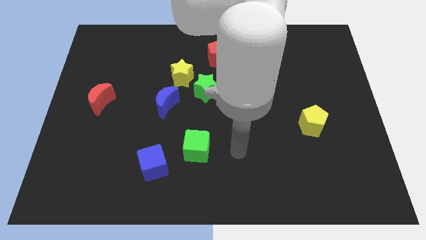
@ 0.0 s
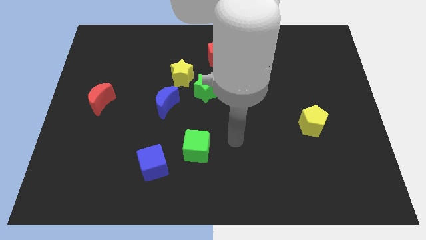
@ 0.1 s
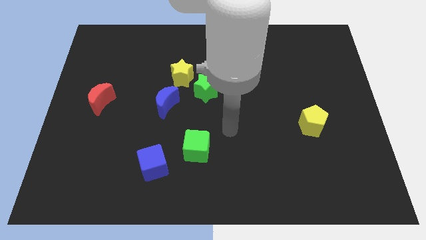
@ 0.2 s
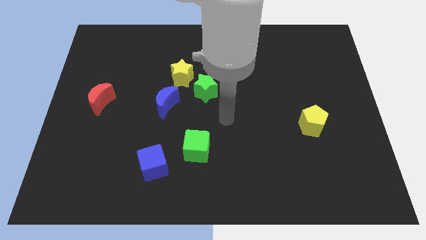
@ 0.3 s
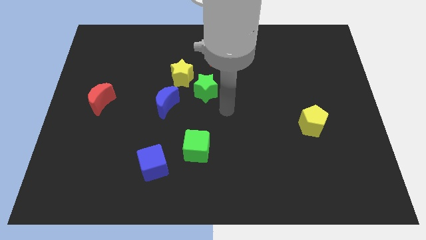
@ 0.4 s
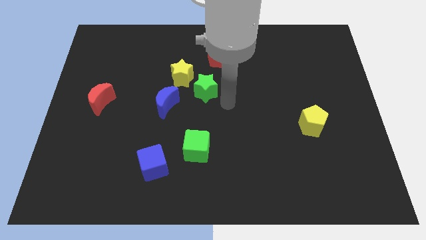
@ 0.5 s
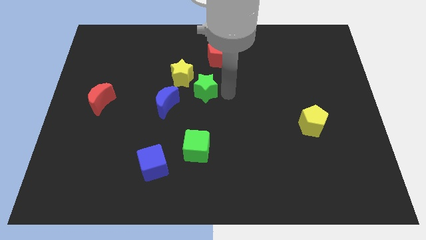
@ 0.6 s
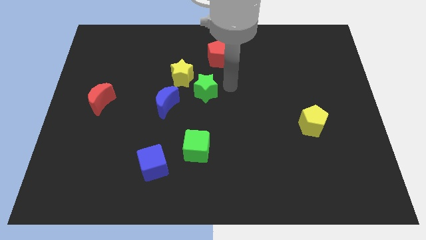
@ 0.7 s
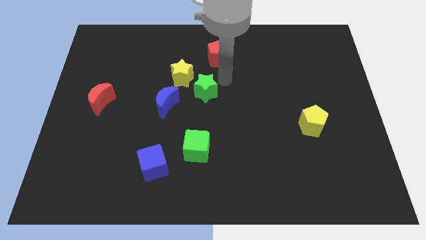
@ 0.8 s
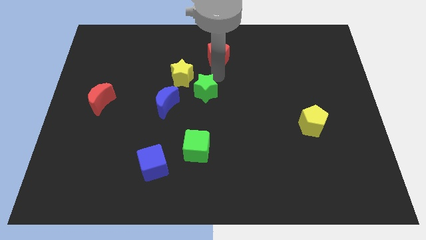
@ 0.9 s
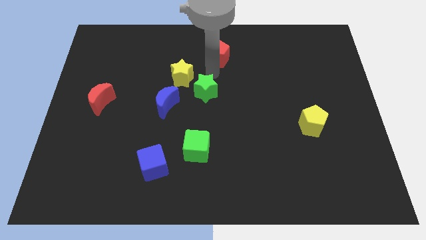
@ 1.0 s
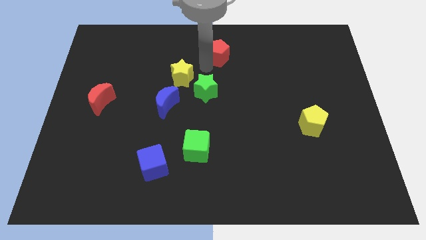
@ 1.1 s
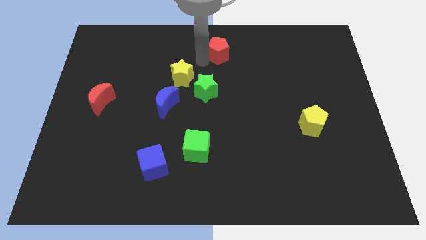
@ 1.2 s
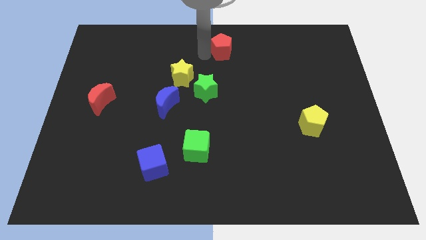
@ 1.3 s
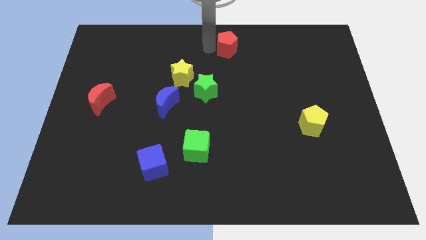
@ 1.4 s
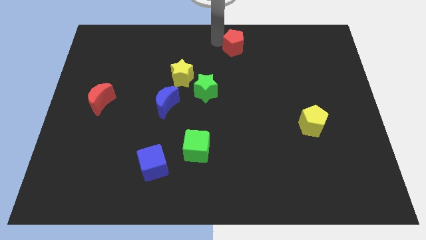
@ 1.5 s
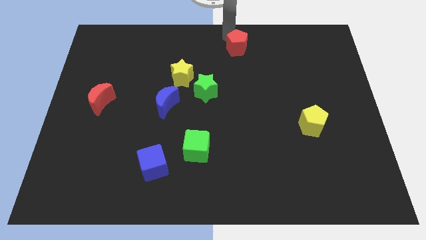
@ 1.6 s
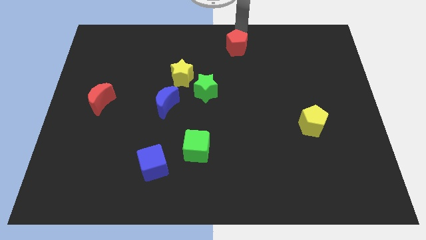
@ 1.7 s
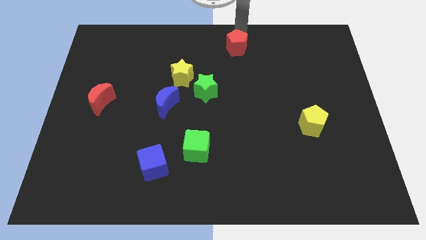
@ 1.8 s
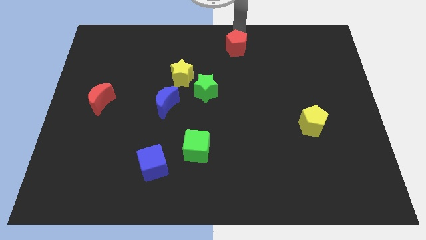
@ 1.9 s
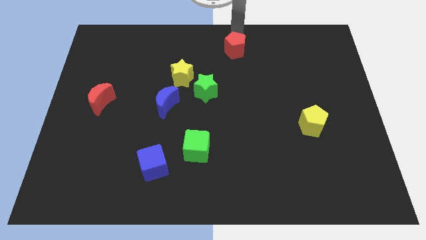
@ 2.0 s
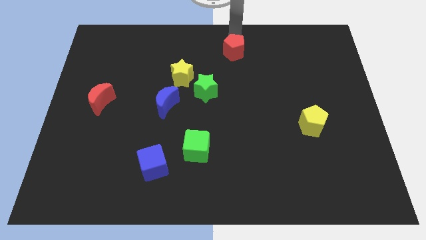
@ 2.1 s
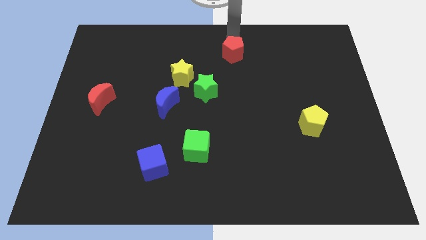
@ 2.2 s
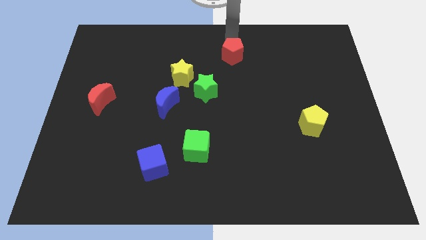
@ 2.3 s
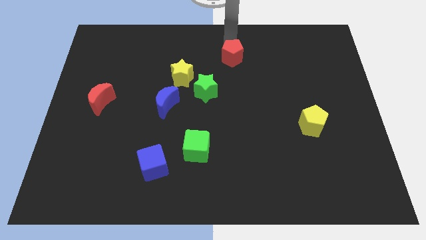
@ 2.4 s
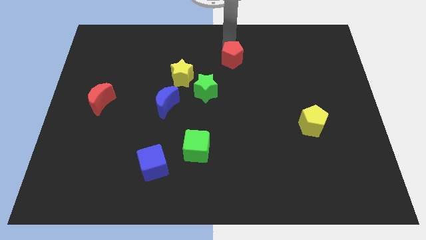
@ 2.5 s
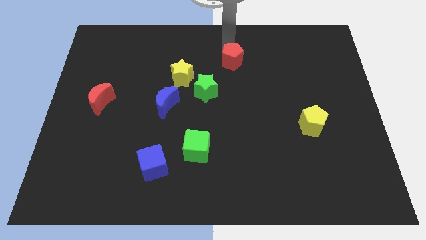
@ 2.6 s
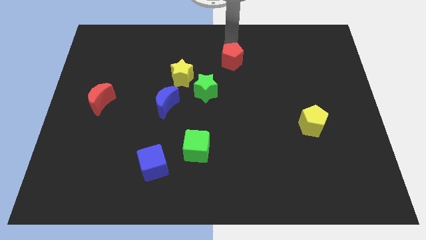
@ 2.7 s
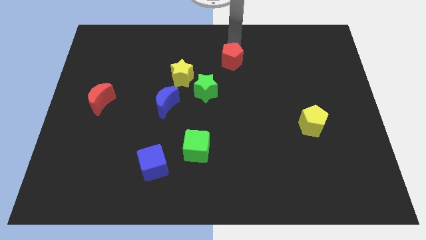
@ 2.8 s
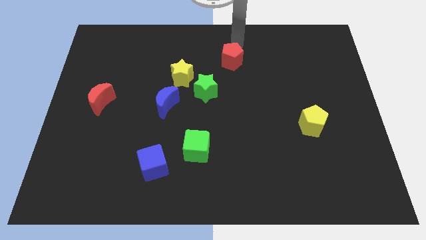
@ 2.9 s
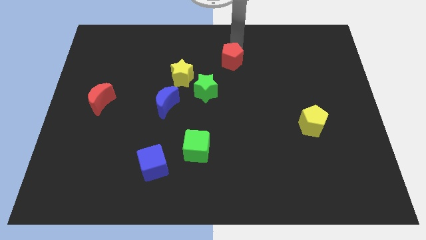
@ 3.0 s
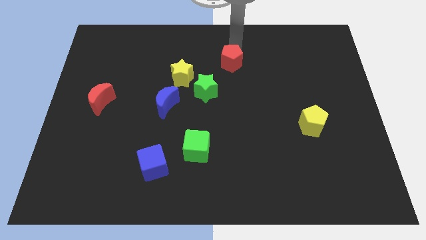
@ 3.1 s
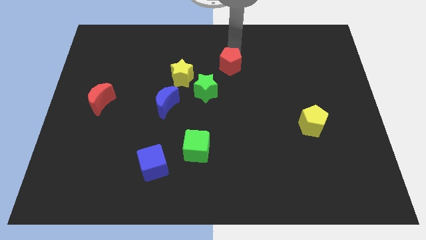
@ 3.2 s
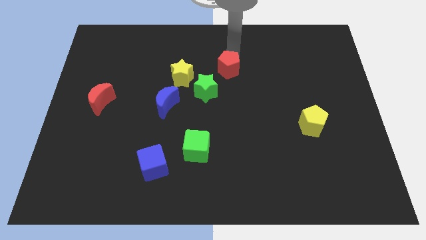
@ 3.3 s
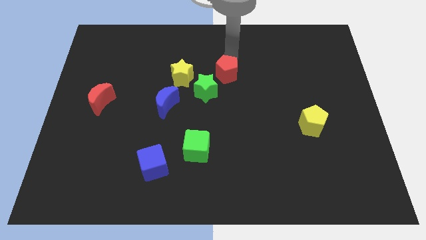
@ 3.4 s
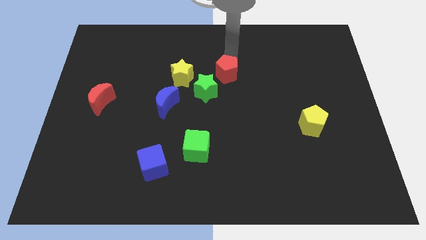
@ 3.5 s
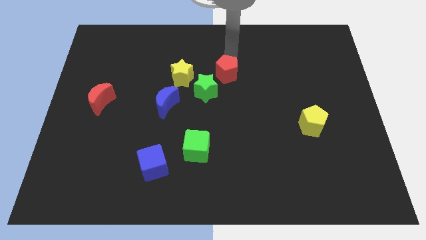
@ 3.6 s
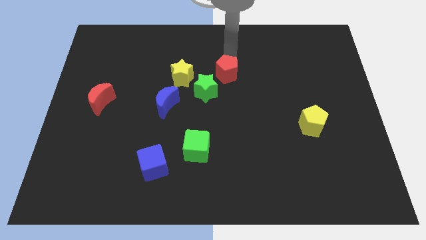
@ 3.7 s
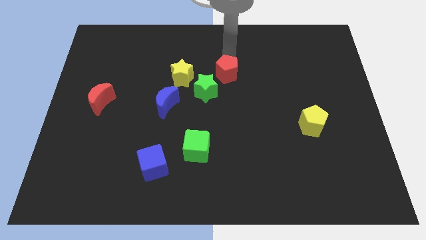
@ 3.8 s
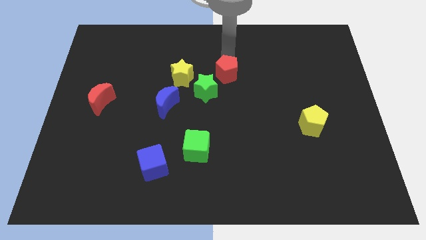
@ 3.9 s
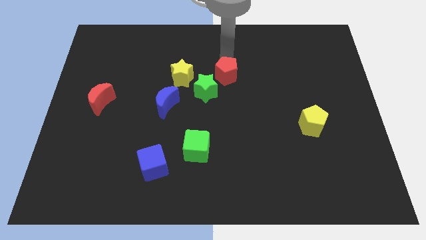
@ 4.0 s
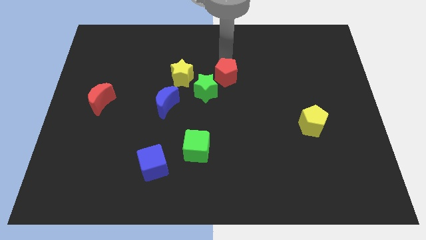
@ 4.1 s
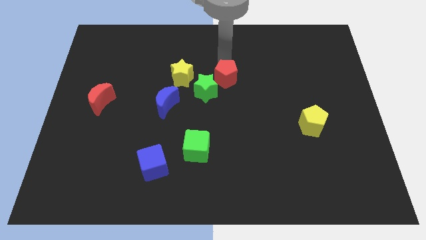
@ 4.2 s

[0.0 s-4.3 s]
slide the red pentagon a bit downwards

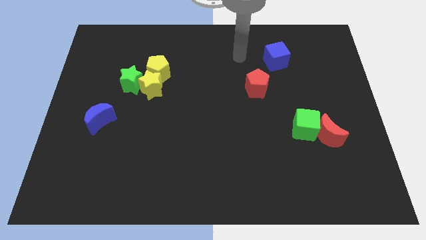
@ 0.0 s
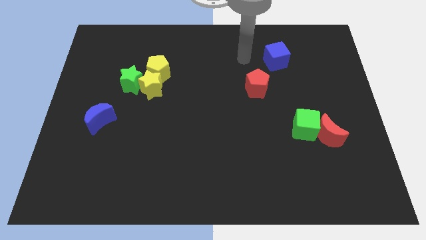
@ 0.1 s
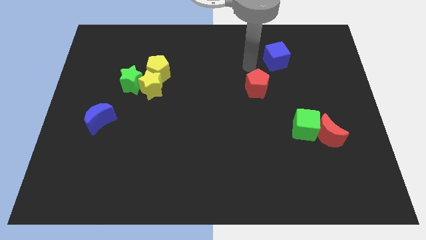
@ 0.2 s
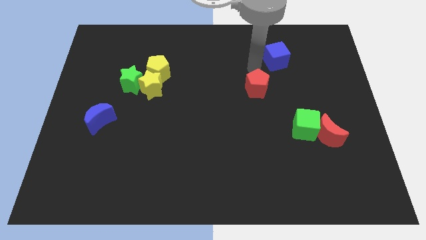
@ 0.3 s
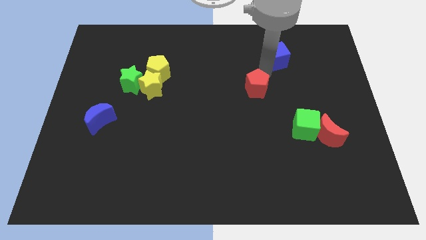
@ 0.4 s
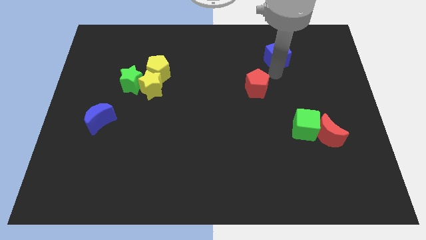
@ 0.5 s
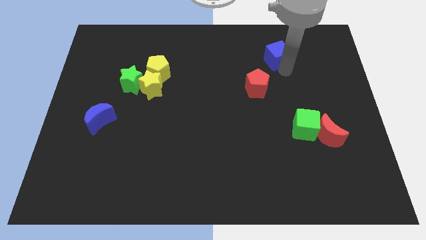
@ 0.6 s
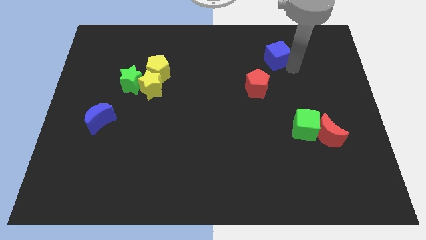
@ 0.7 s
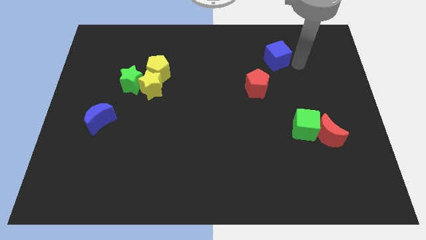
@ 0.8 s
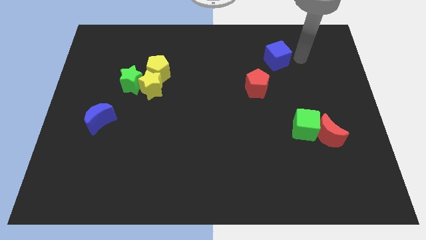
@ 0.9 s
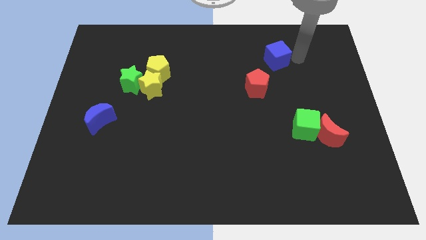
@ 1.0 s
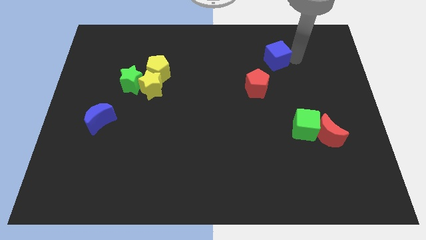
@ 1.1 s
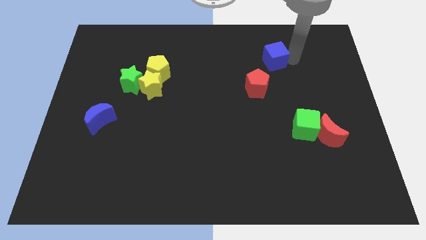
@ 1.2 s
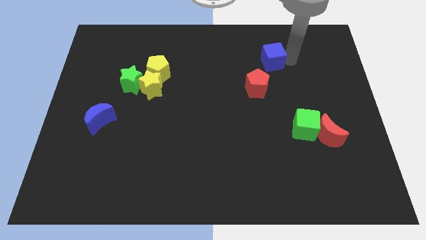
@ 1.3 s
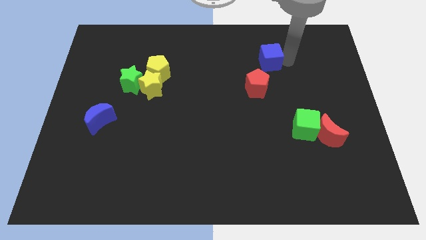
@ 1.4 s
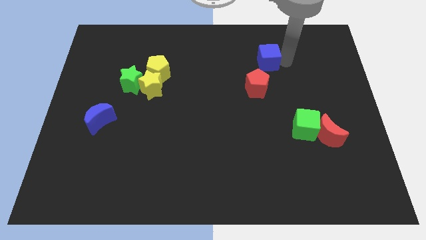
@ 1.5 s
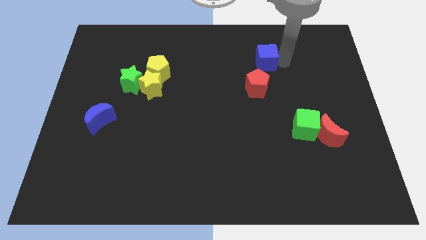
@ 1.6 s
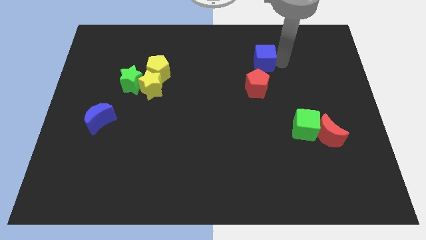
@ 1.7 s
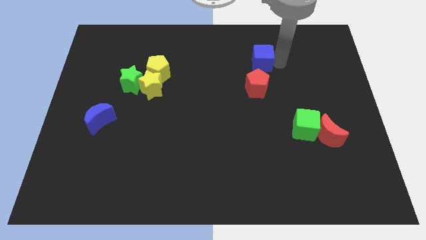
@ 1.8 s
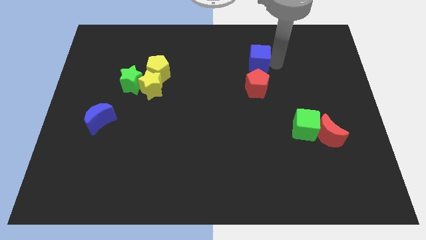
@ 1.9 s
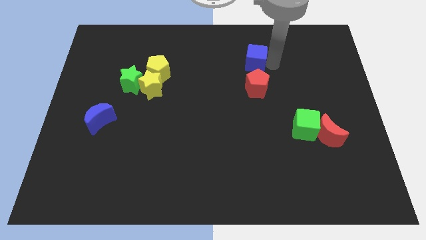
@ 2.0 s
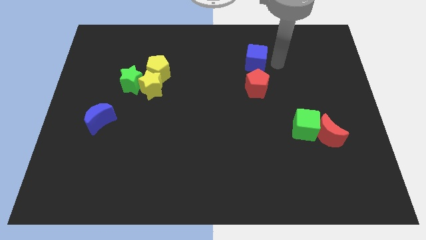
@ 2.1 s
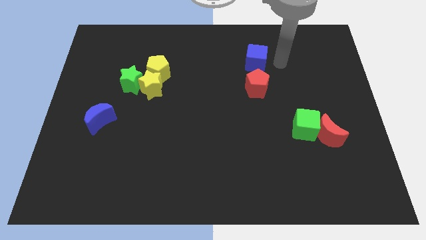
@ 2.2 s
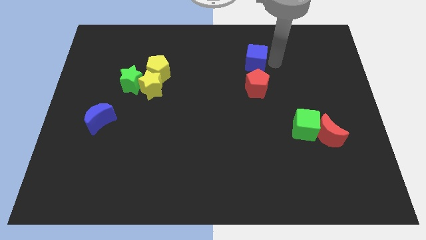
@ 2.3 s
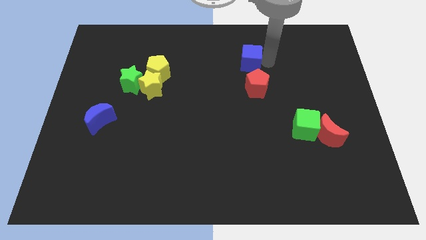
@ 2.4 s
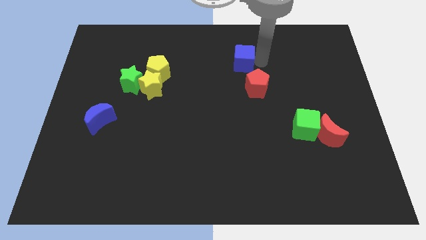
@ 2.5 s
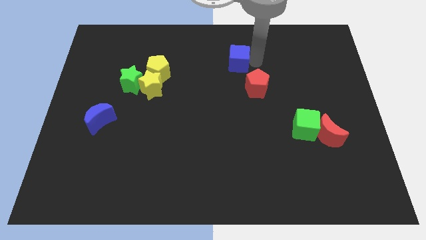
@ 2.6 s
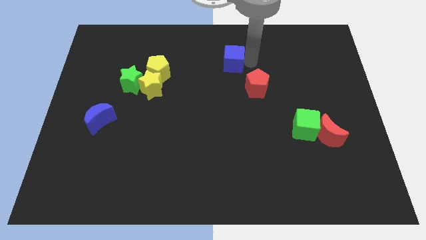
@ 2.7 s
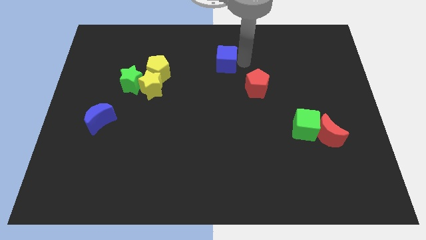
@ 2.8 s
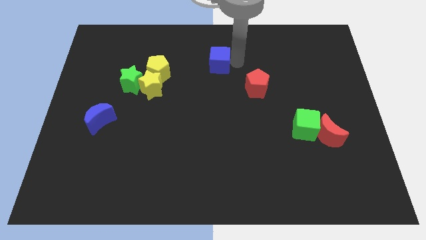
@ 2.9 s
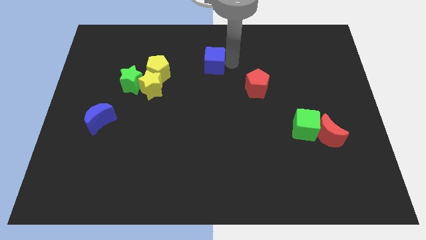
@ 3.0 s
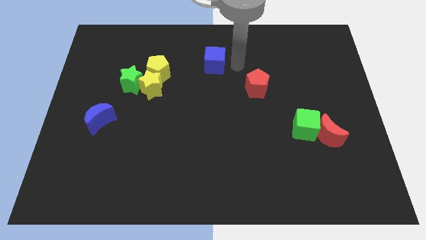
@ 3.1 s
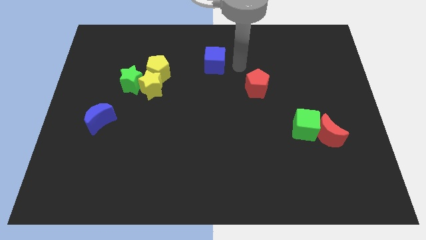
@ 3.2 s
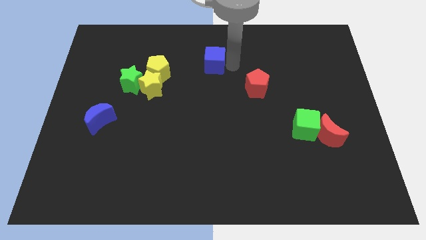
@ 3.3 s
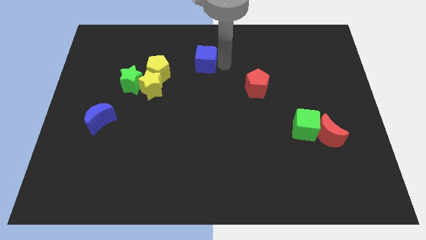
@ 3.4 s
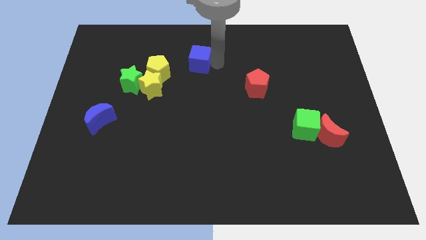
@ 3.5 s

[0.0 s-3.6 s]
push the blue cube to the left
